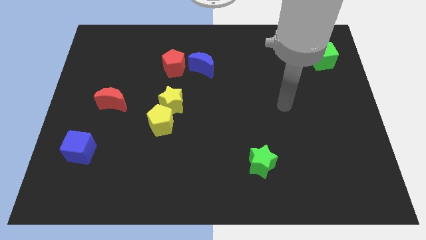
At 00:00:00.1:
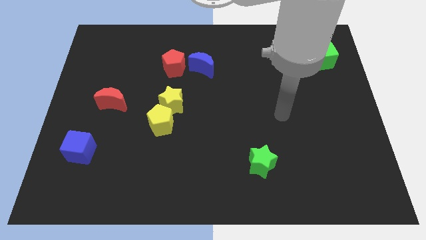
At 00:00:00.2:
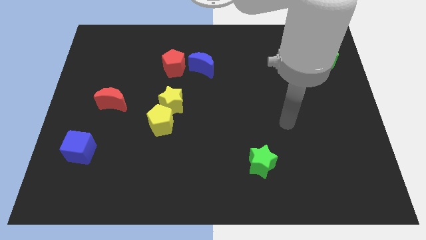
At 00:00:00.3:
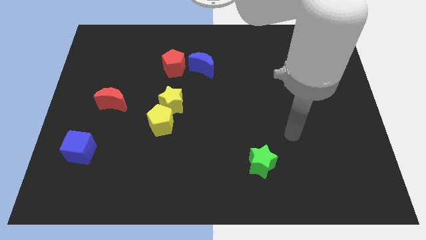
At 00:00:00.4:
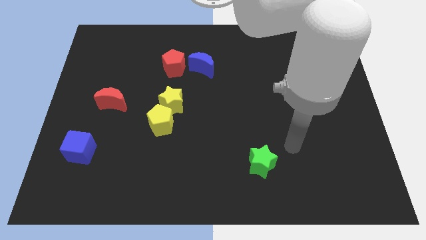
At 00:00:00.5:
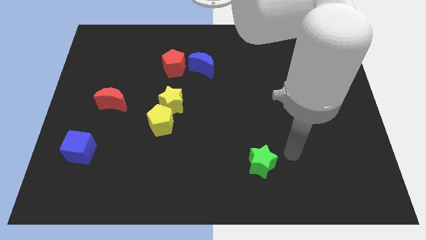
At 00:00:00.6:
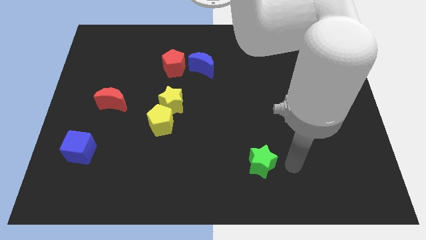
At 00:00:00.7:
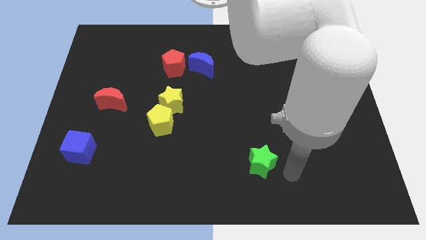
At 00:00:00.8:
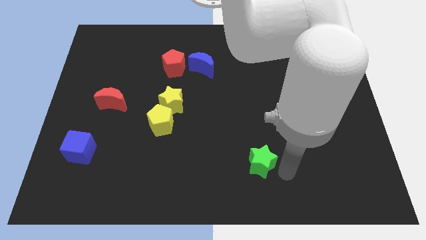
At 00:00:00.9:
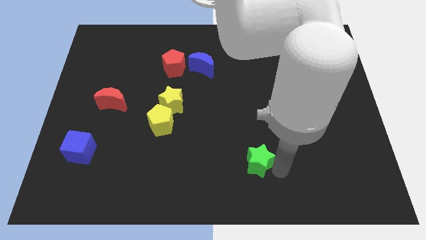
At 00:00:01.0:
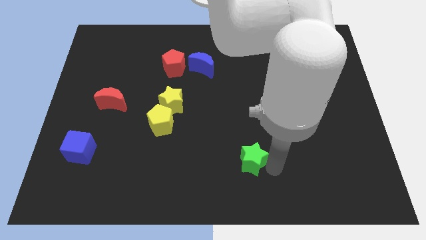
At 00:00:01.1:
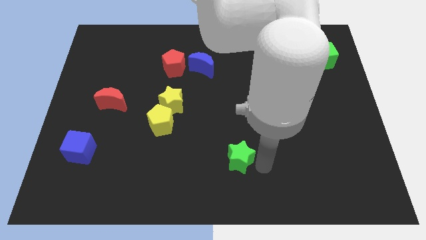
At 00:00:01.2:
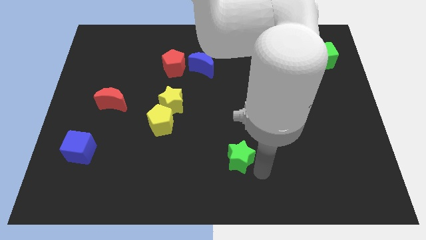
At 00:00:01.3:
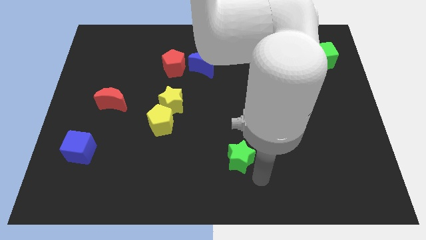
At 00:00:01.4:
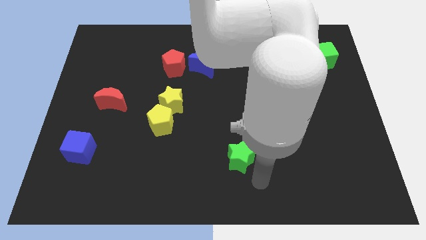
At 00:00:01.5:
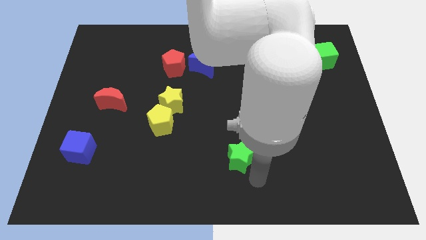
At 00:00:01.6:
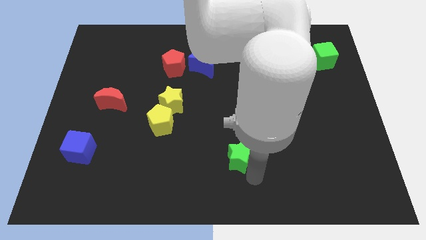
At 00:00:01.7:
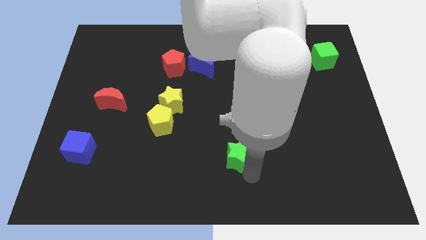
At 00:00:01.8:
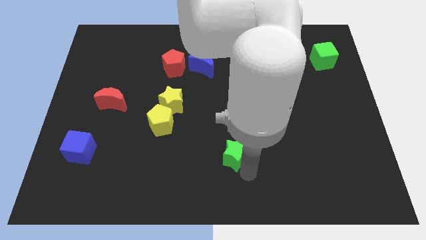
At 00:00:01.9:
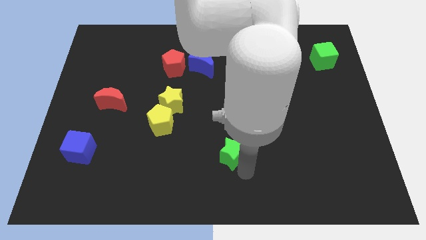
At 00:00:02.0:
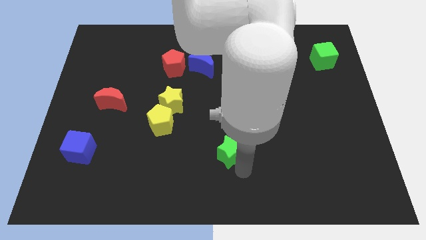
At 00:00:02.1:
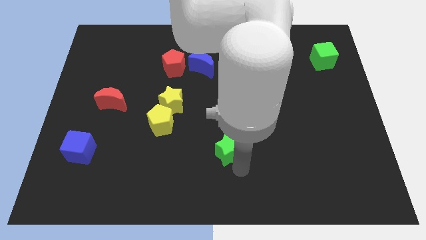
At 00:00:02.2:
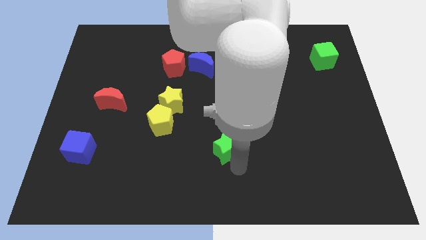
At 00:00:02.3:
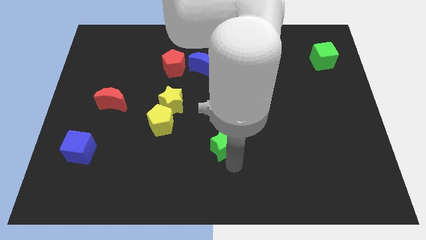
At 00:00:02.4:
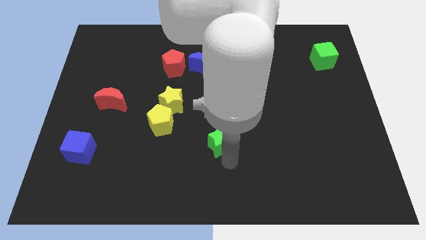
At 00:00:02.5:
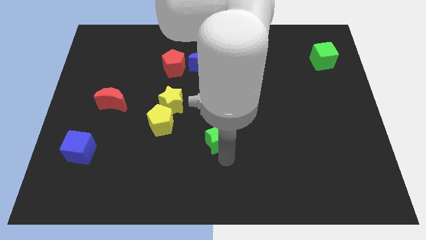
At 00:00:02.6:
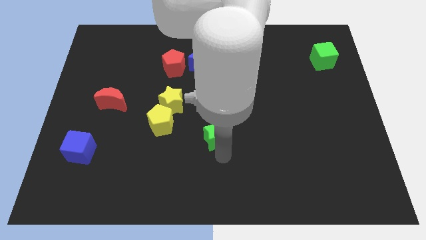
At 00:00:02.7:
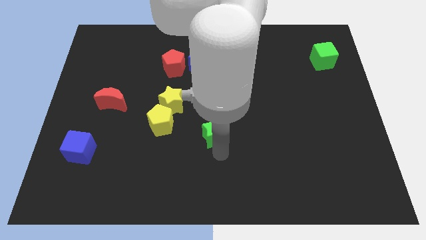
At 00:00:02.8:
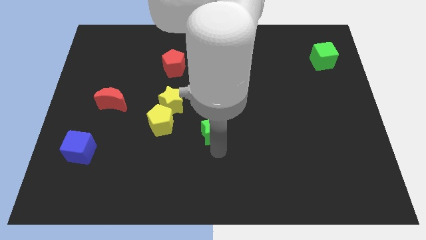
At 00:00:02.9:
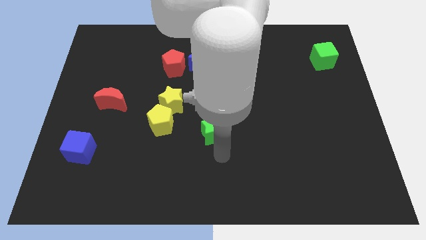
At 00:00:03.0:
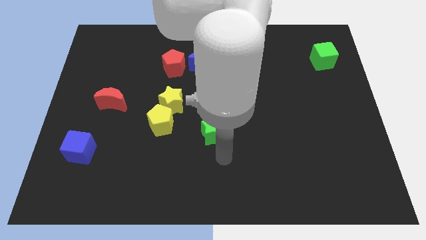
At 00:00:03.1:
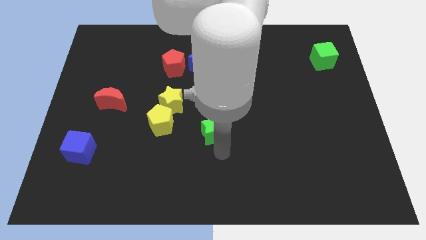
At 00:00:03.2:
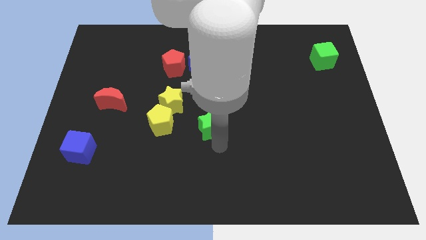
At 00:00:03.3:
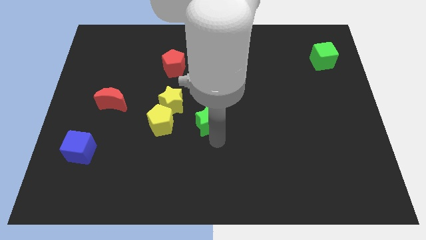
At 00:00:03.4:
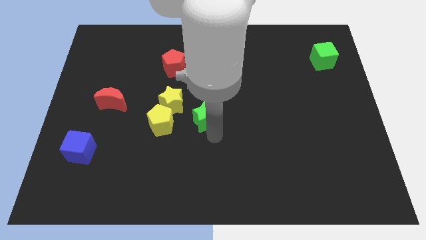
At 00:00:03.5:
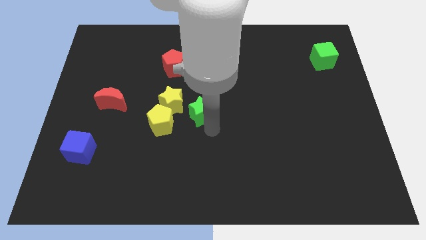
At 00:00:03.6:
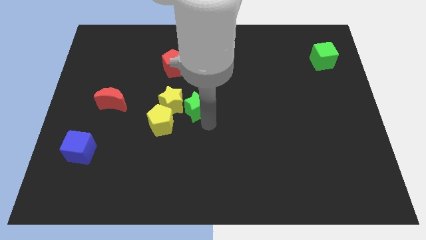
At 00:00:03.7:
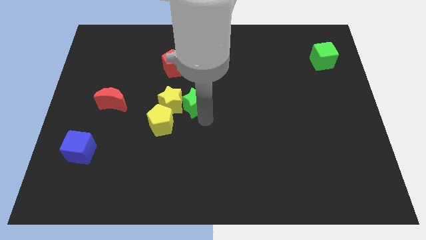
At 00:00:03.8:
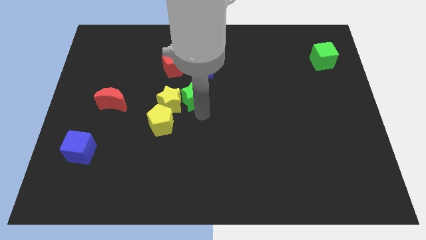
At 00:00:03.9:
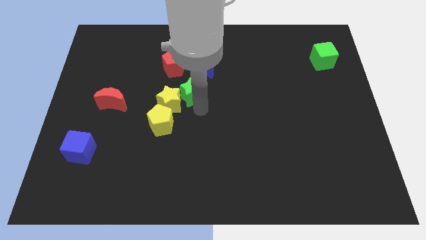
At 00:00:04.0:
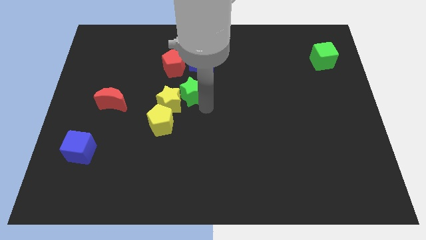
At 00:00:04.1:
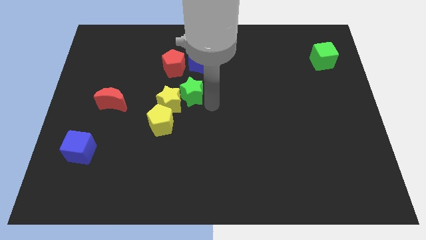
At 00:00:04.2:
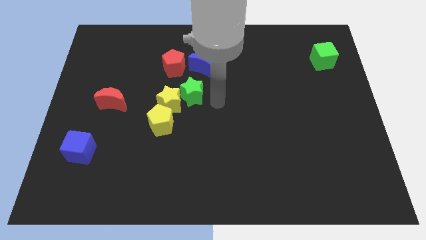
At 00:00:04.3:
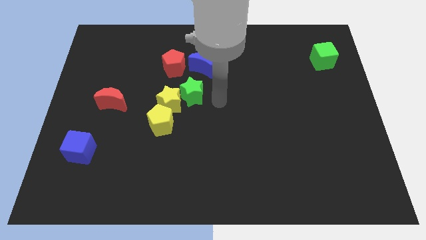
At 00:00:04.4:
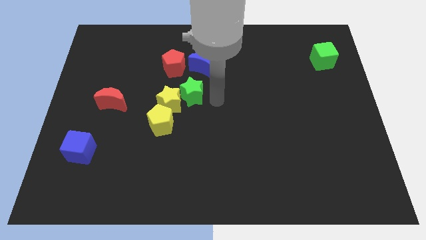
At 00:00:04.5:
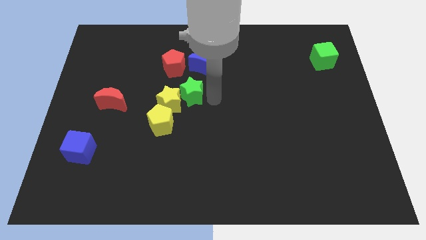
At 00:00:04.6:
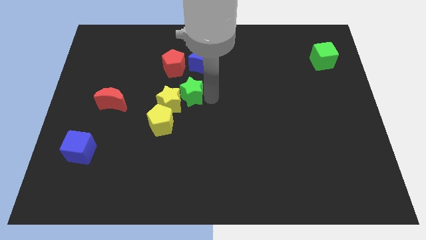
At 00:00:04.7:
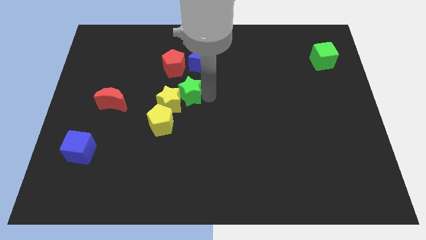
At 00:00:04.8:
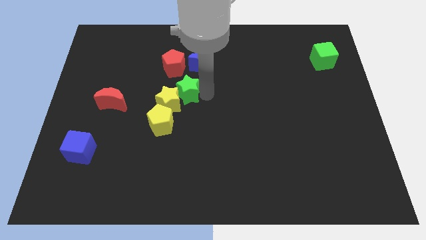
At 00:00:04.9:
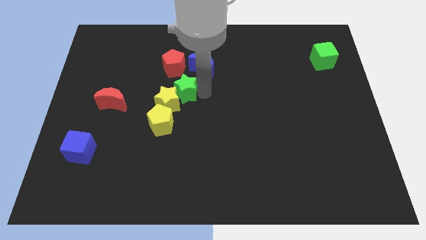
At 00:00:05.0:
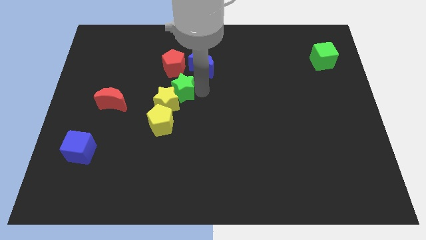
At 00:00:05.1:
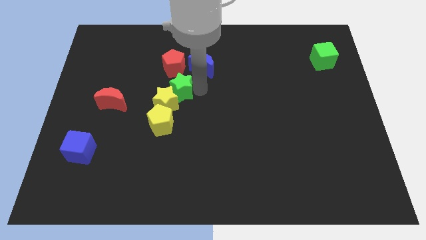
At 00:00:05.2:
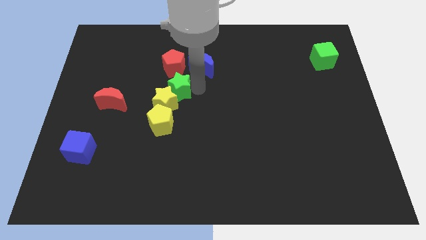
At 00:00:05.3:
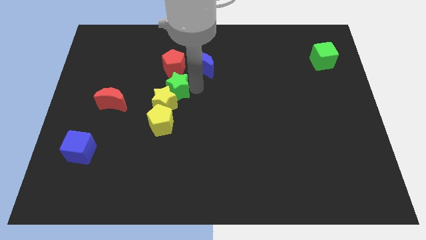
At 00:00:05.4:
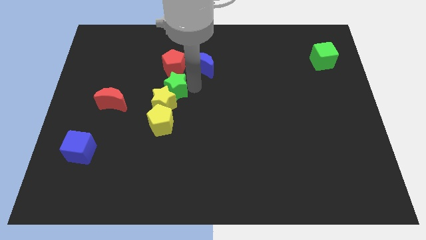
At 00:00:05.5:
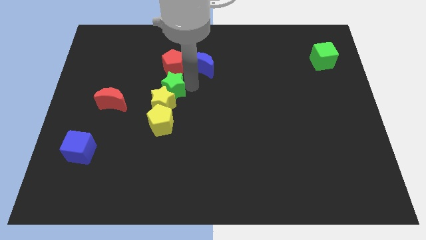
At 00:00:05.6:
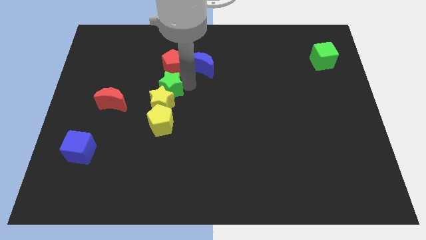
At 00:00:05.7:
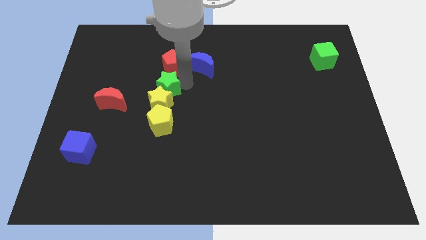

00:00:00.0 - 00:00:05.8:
slide the green star diagonally down and to the left of the red pentagon

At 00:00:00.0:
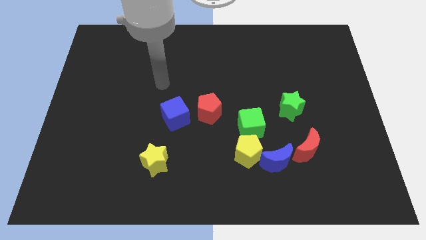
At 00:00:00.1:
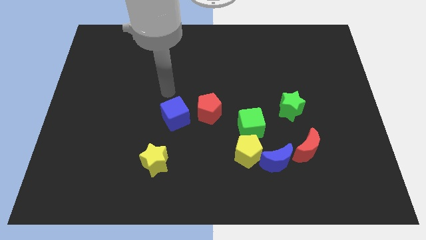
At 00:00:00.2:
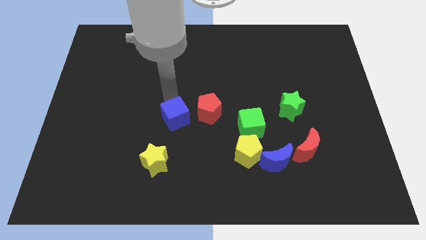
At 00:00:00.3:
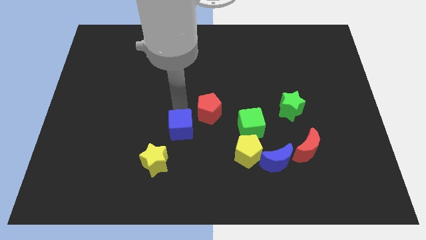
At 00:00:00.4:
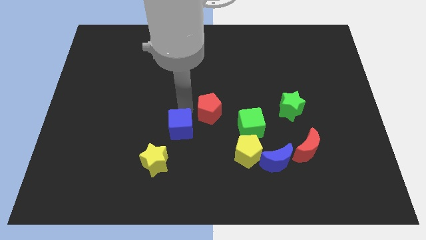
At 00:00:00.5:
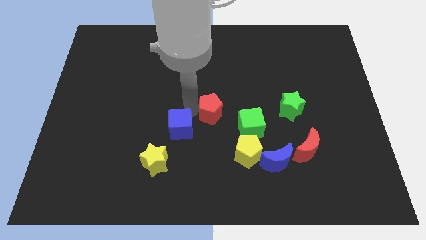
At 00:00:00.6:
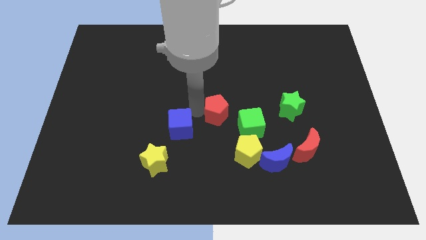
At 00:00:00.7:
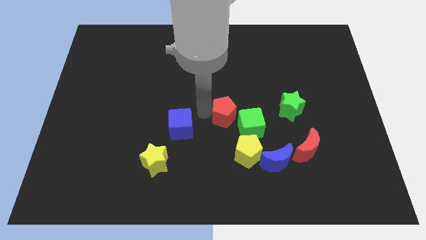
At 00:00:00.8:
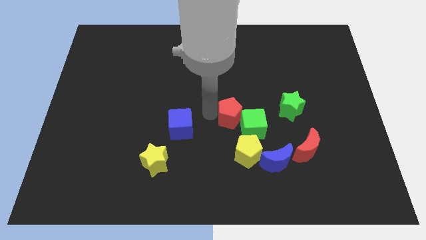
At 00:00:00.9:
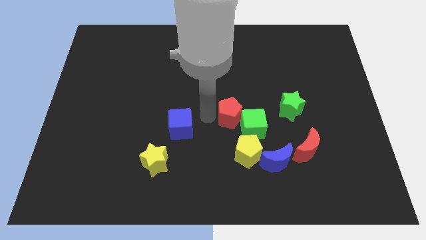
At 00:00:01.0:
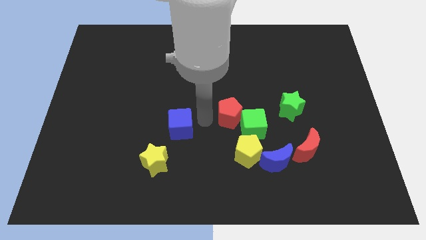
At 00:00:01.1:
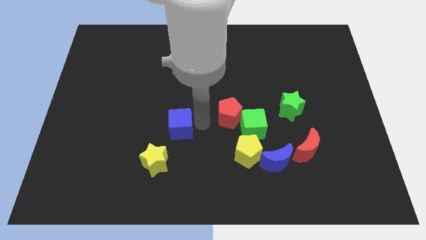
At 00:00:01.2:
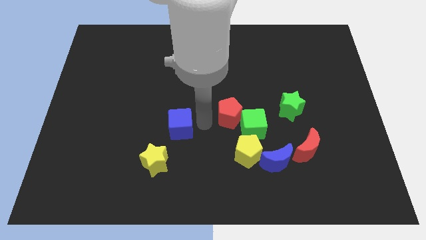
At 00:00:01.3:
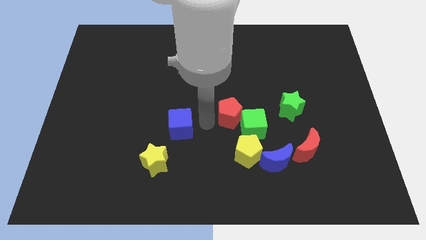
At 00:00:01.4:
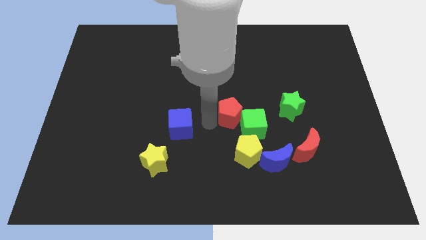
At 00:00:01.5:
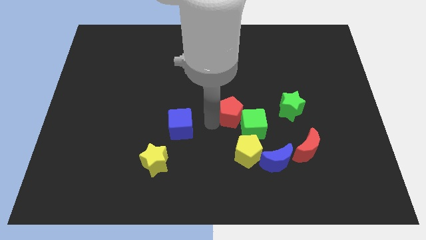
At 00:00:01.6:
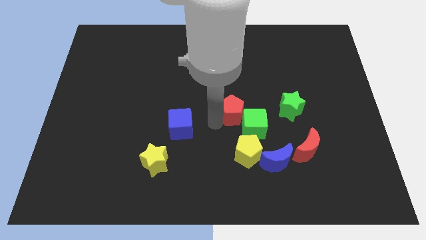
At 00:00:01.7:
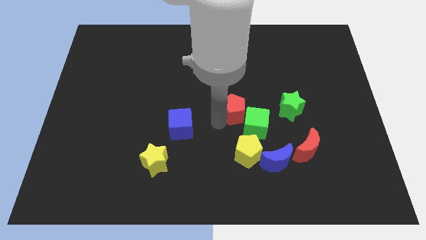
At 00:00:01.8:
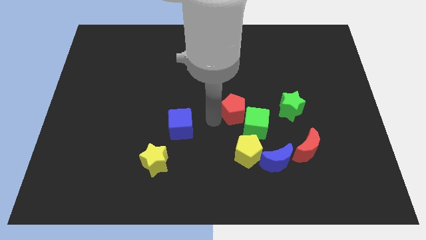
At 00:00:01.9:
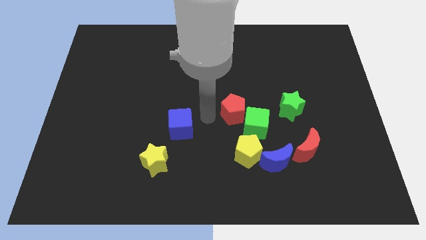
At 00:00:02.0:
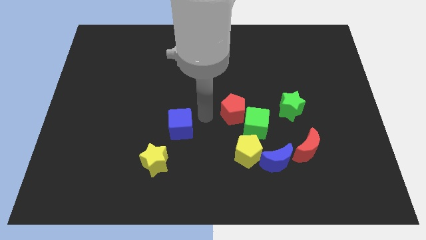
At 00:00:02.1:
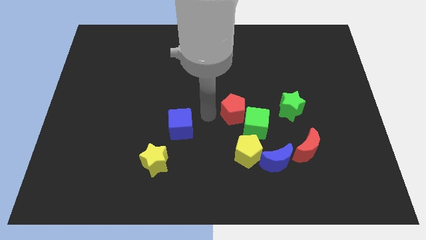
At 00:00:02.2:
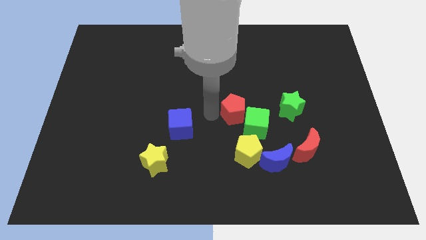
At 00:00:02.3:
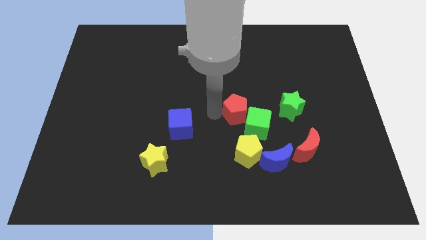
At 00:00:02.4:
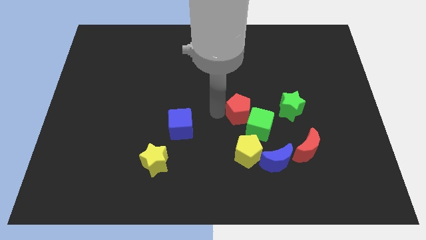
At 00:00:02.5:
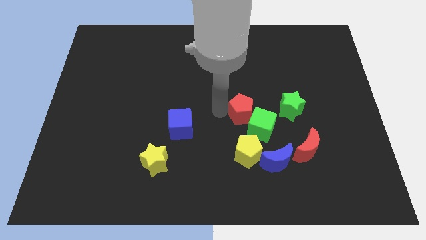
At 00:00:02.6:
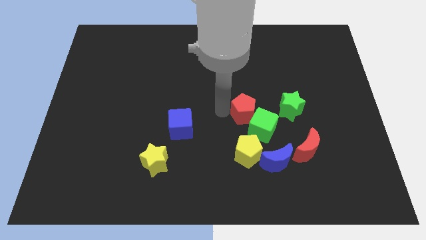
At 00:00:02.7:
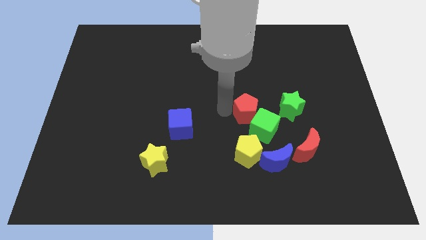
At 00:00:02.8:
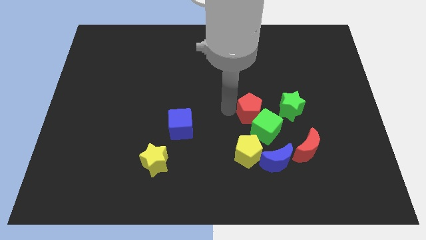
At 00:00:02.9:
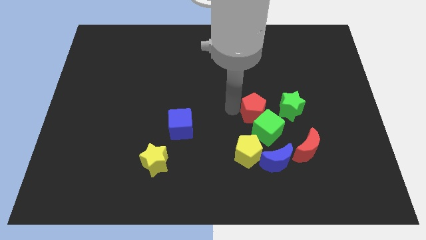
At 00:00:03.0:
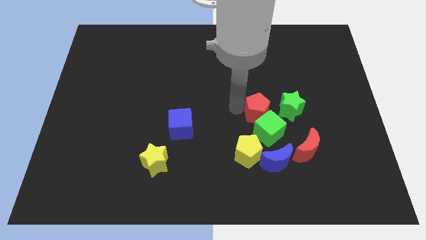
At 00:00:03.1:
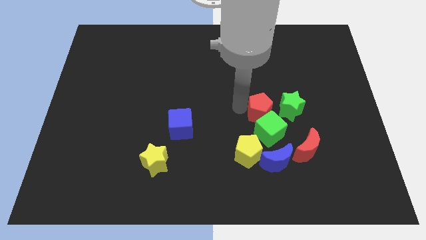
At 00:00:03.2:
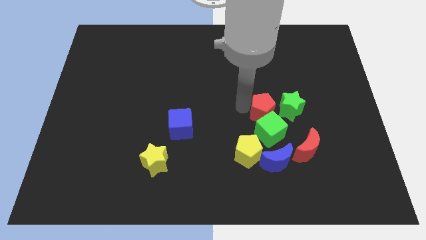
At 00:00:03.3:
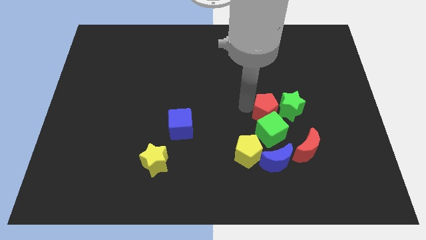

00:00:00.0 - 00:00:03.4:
move the red pentagon to the top right side of the green cube
